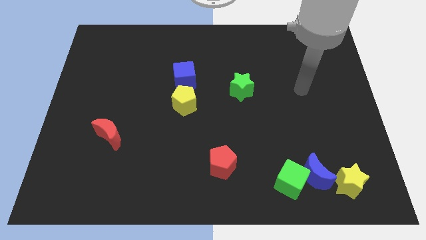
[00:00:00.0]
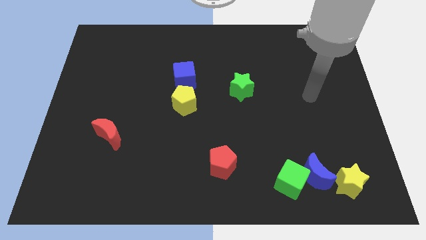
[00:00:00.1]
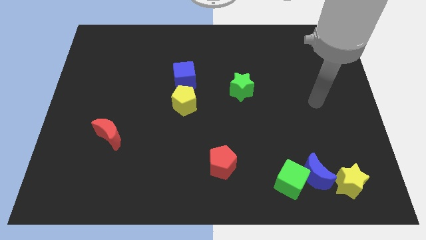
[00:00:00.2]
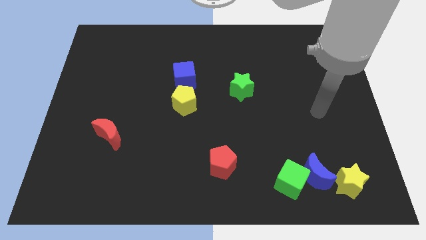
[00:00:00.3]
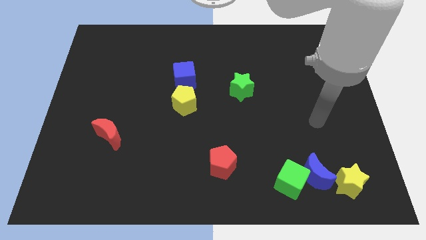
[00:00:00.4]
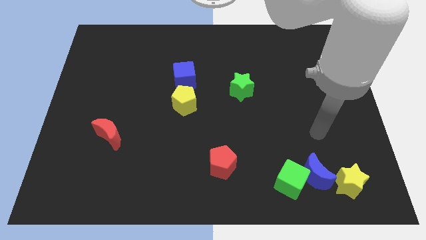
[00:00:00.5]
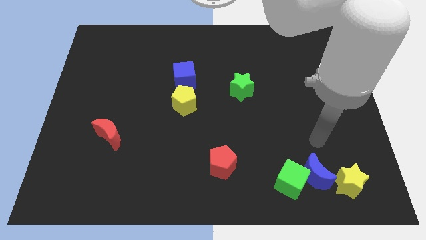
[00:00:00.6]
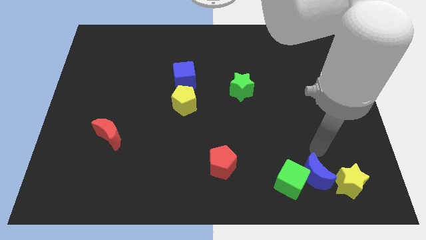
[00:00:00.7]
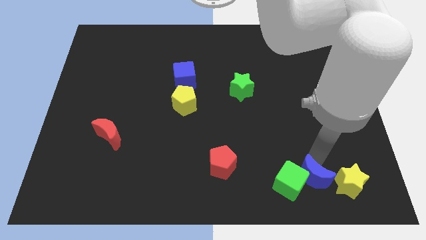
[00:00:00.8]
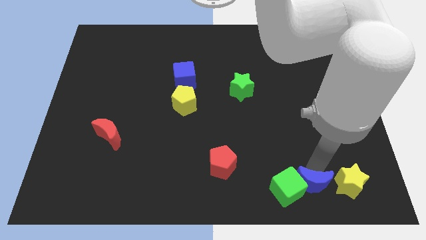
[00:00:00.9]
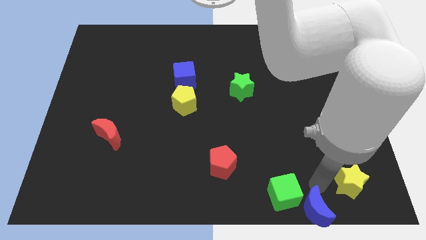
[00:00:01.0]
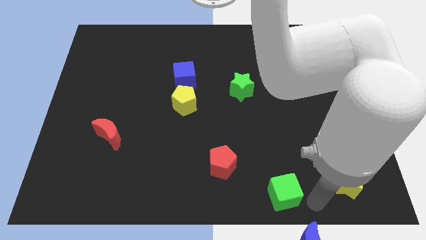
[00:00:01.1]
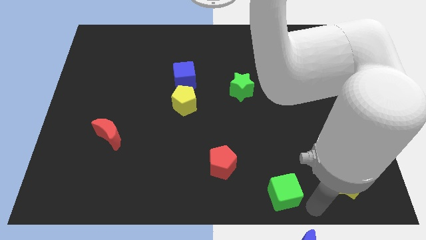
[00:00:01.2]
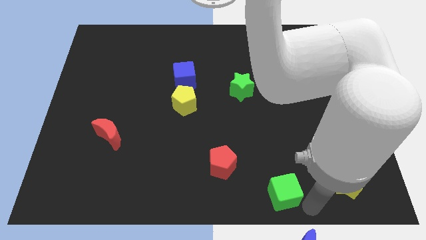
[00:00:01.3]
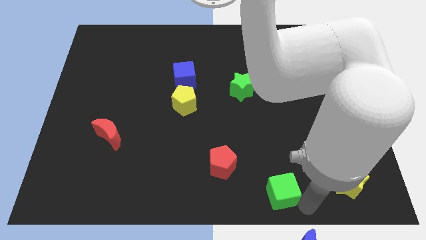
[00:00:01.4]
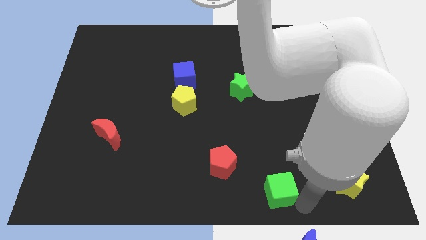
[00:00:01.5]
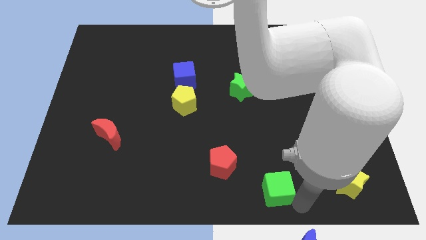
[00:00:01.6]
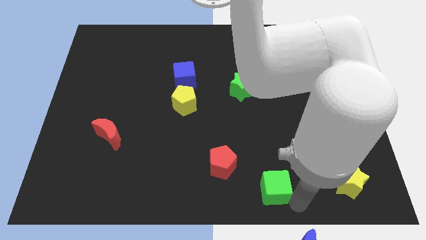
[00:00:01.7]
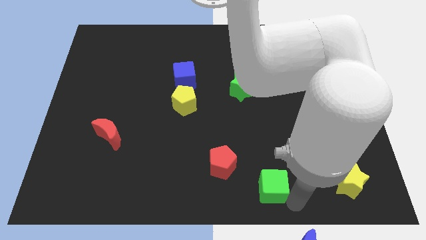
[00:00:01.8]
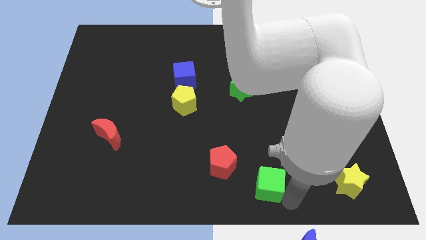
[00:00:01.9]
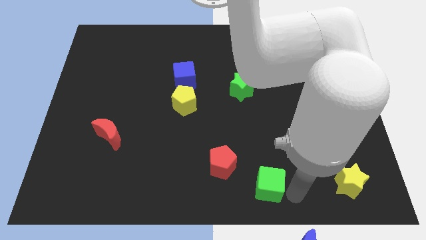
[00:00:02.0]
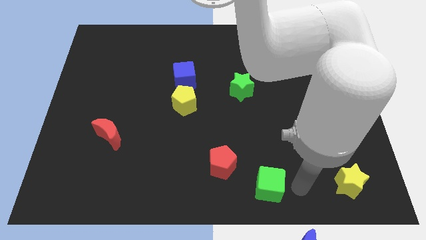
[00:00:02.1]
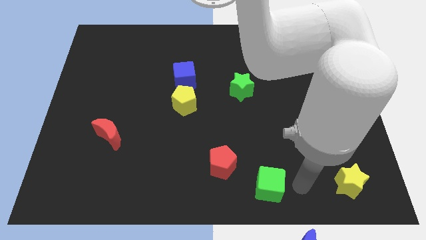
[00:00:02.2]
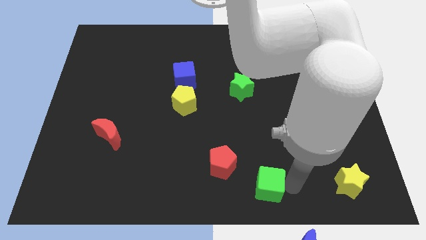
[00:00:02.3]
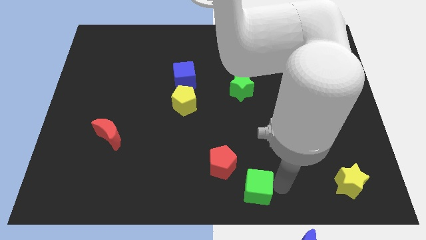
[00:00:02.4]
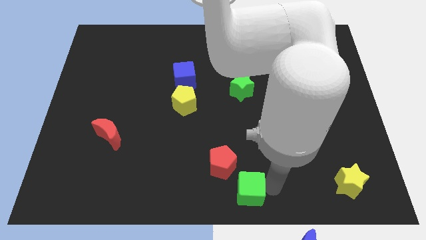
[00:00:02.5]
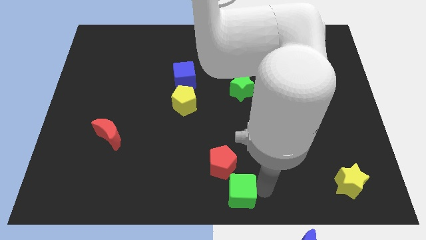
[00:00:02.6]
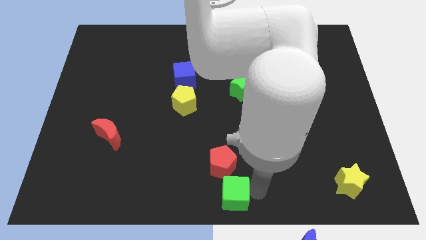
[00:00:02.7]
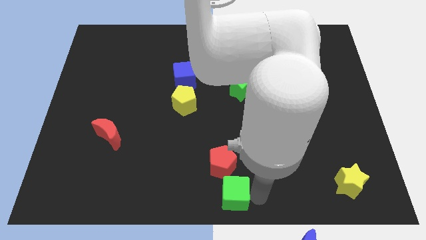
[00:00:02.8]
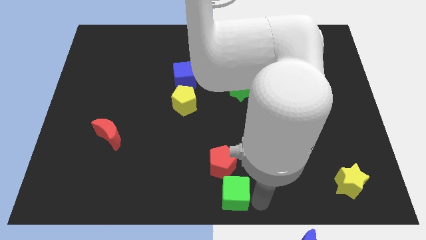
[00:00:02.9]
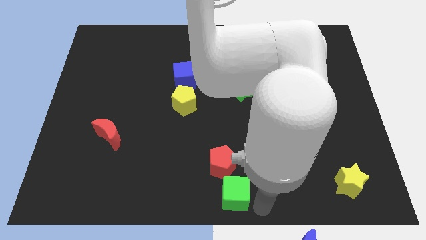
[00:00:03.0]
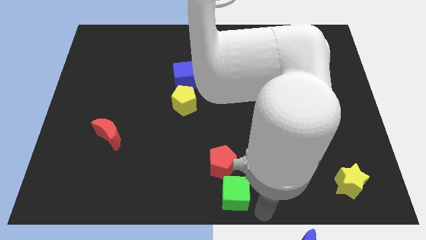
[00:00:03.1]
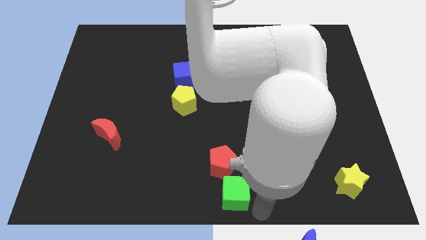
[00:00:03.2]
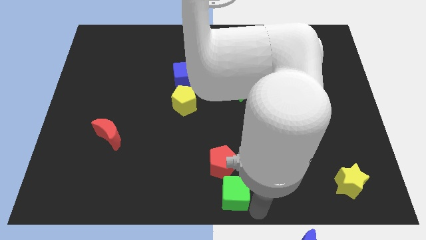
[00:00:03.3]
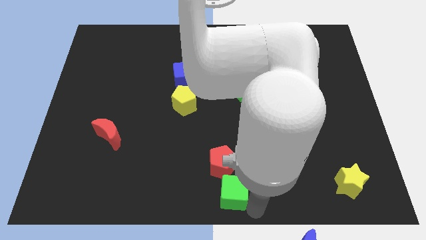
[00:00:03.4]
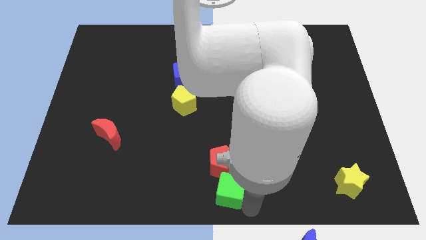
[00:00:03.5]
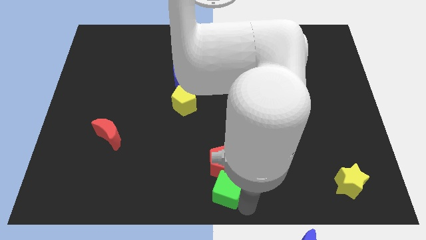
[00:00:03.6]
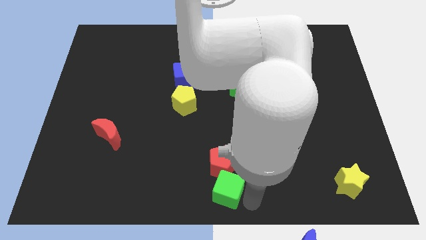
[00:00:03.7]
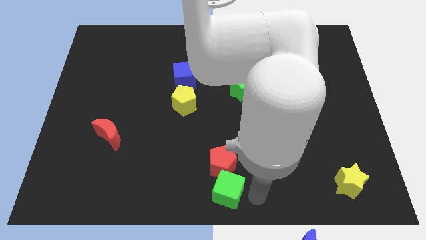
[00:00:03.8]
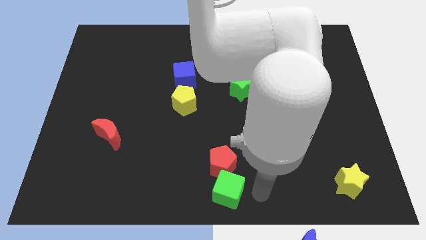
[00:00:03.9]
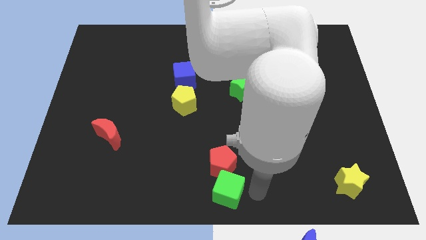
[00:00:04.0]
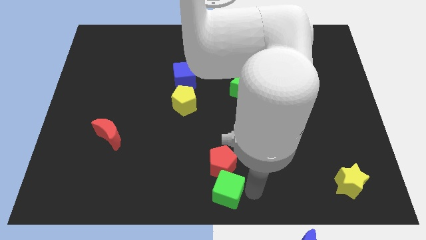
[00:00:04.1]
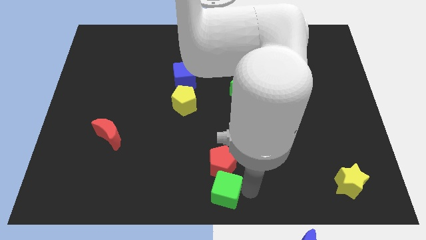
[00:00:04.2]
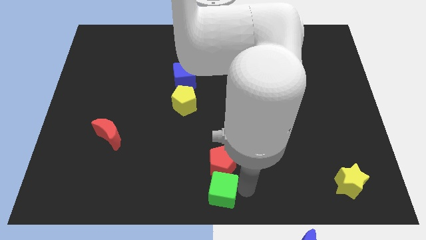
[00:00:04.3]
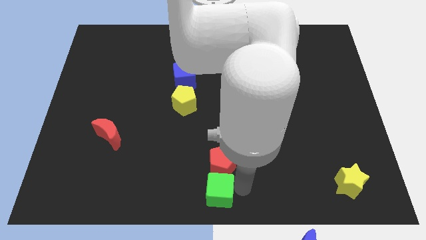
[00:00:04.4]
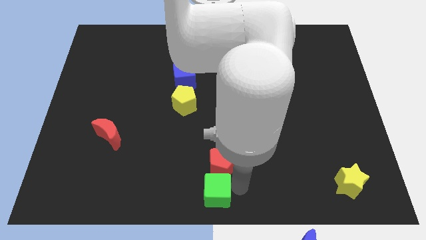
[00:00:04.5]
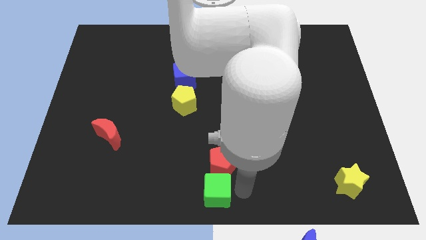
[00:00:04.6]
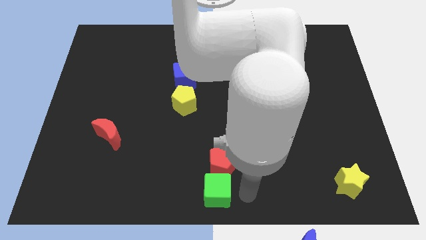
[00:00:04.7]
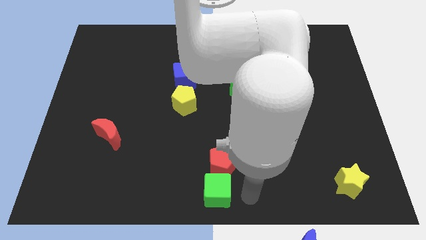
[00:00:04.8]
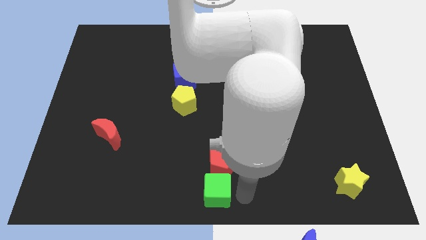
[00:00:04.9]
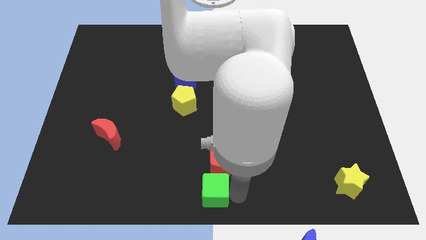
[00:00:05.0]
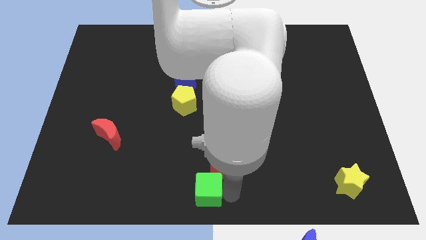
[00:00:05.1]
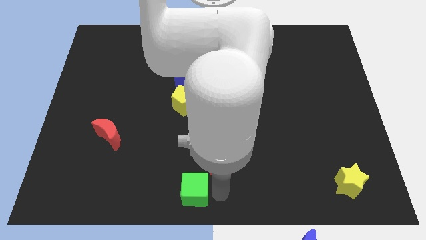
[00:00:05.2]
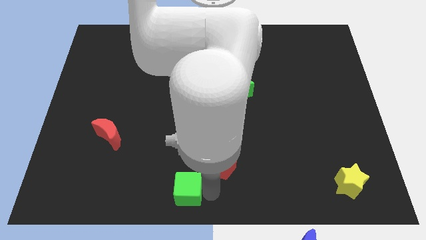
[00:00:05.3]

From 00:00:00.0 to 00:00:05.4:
slide the green cube left

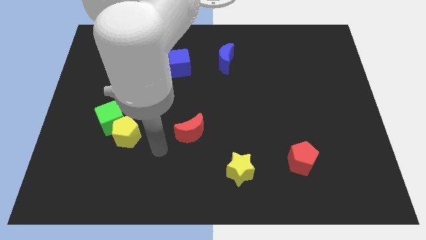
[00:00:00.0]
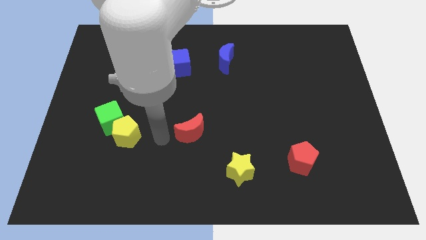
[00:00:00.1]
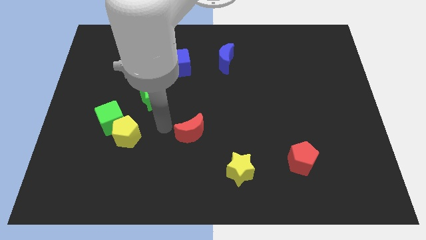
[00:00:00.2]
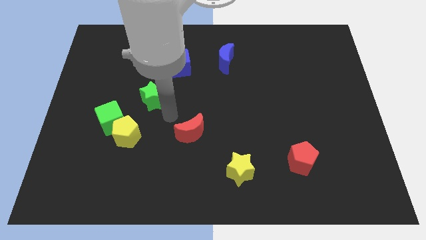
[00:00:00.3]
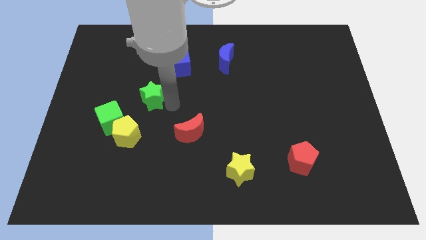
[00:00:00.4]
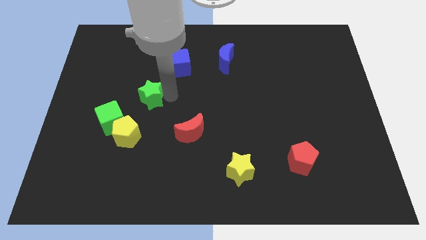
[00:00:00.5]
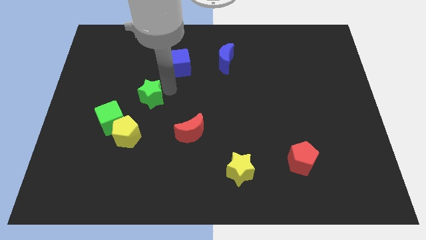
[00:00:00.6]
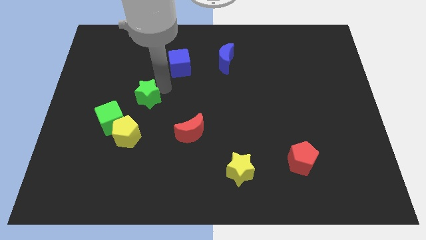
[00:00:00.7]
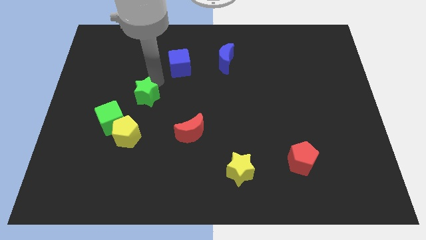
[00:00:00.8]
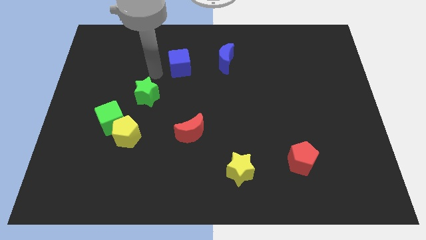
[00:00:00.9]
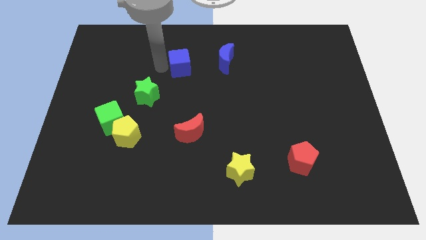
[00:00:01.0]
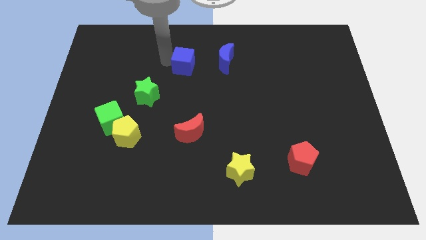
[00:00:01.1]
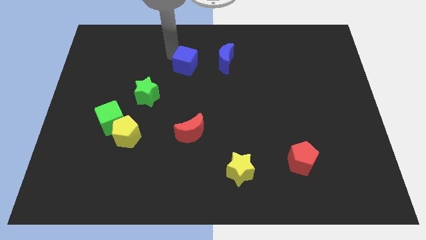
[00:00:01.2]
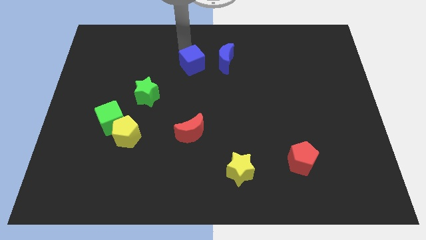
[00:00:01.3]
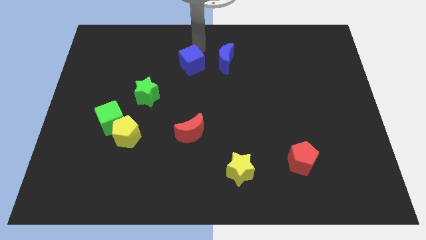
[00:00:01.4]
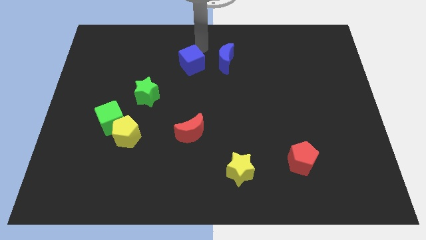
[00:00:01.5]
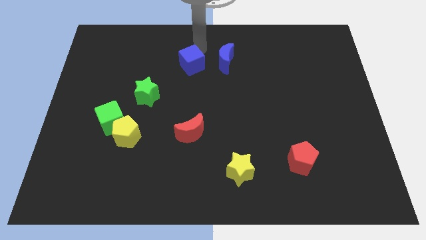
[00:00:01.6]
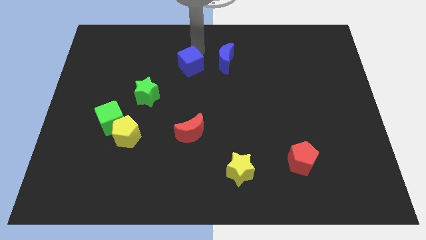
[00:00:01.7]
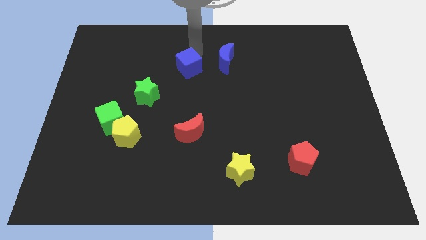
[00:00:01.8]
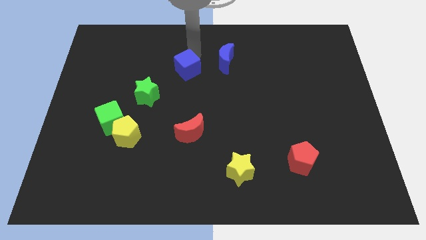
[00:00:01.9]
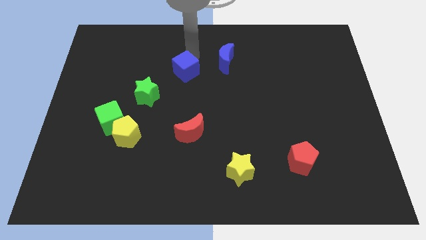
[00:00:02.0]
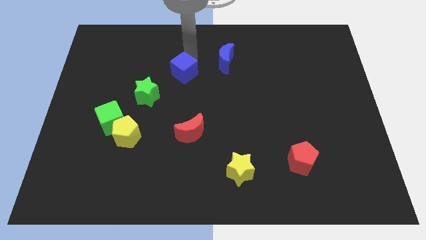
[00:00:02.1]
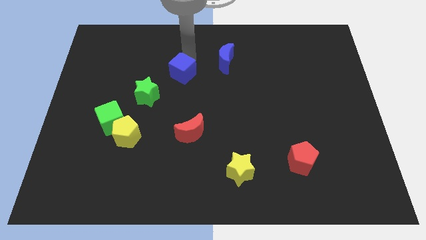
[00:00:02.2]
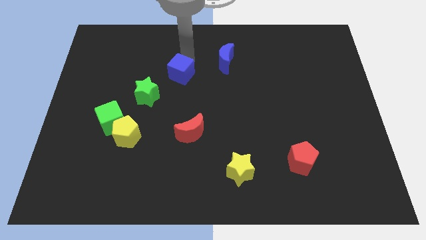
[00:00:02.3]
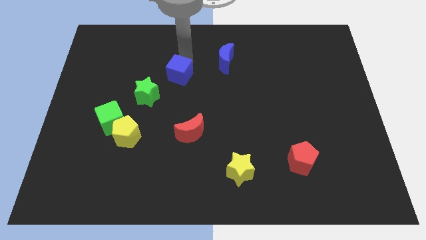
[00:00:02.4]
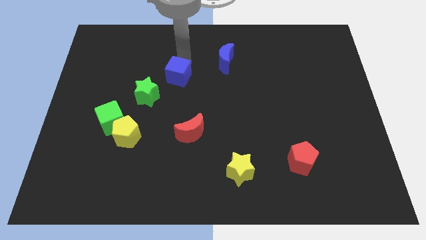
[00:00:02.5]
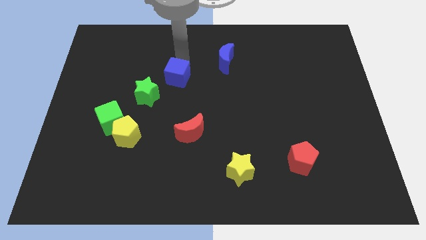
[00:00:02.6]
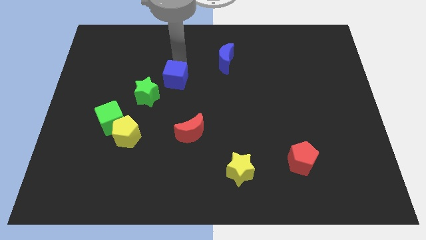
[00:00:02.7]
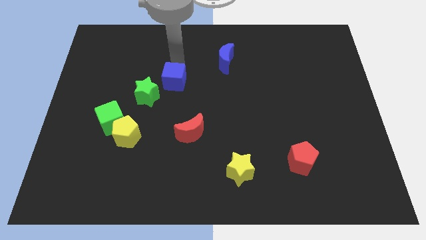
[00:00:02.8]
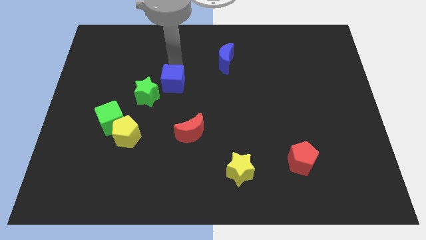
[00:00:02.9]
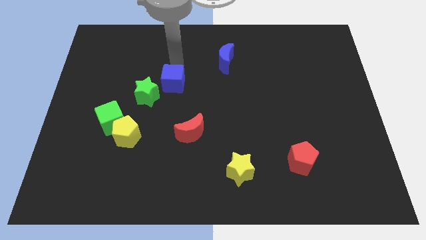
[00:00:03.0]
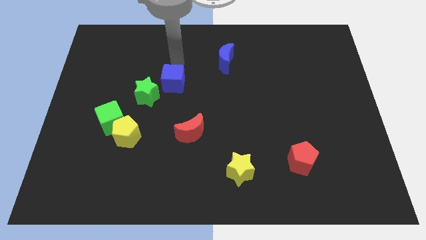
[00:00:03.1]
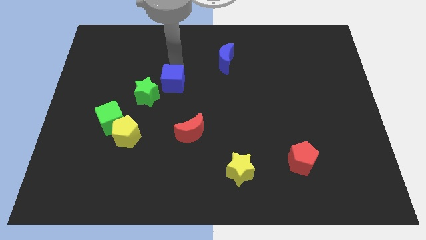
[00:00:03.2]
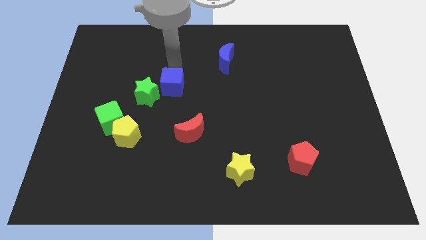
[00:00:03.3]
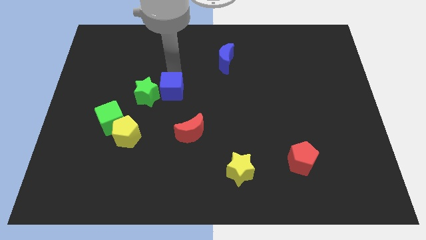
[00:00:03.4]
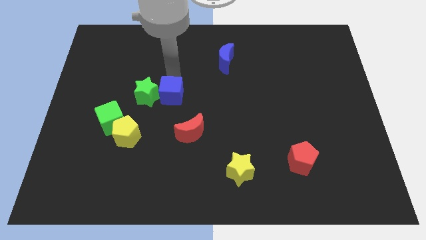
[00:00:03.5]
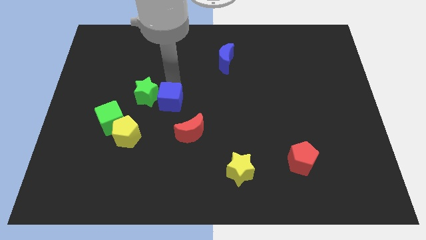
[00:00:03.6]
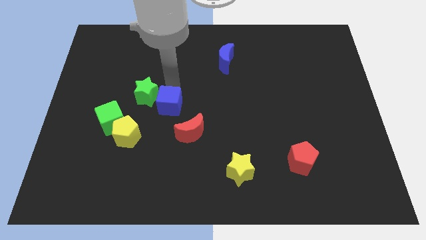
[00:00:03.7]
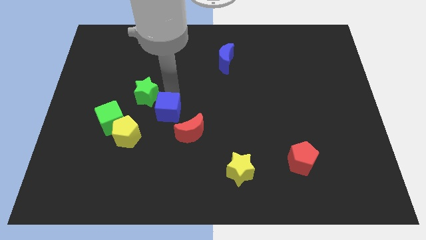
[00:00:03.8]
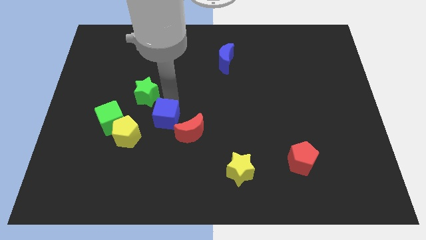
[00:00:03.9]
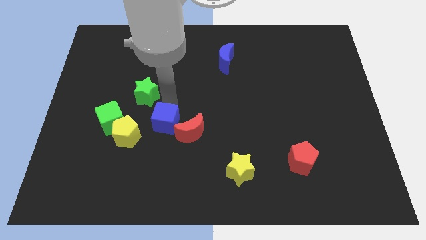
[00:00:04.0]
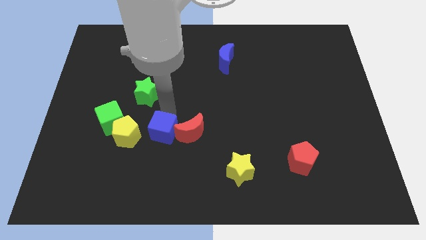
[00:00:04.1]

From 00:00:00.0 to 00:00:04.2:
move the blue cube downwards
